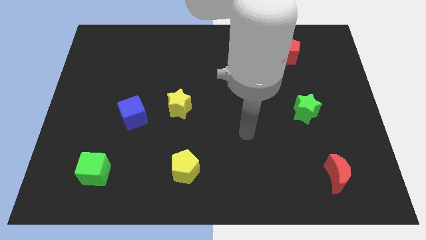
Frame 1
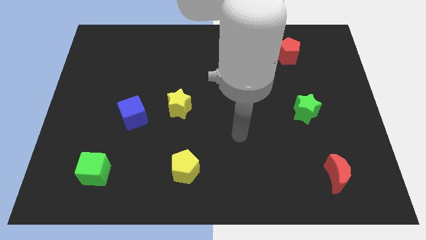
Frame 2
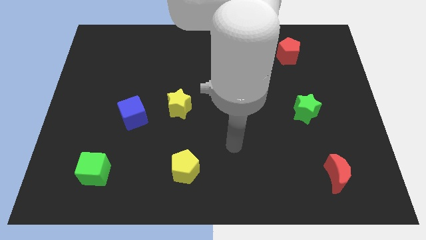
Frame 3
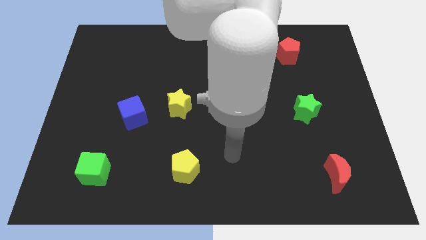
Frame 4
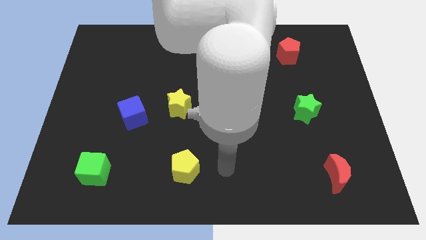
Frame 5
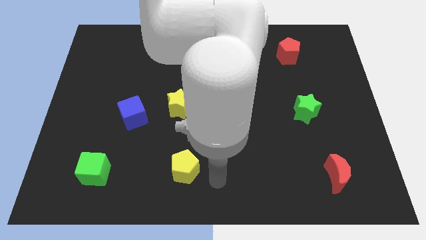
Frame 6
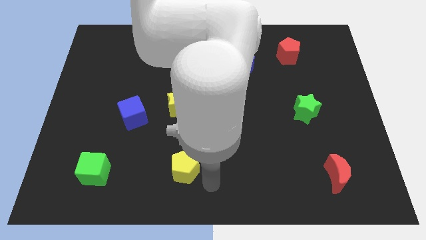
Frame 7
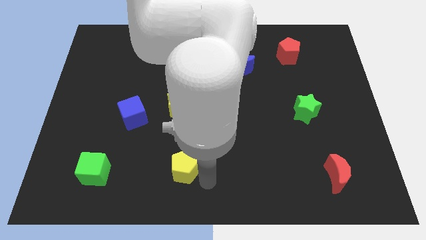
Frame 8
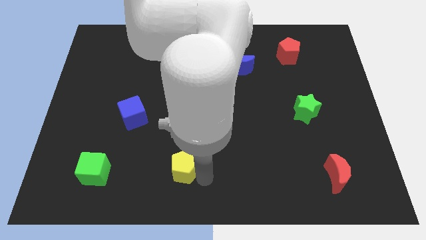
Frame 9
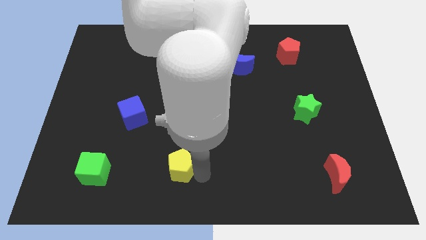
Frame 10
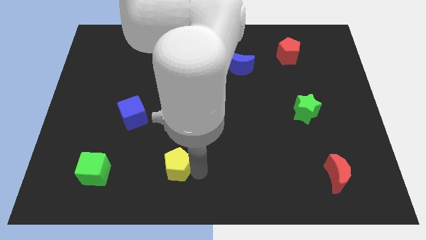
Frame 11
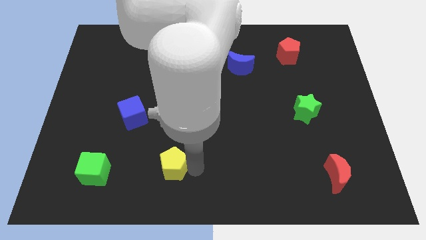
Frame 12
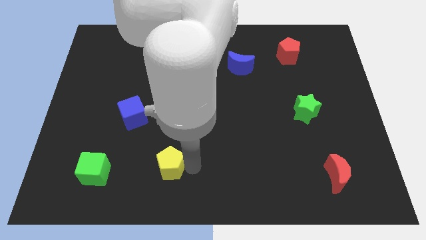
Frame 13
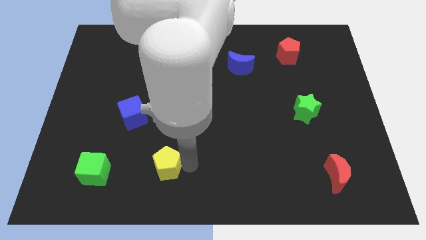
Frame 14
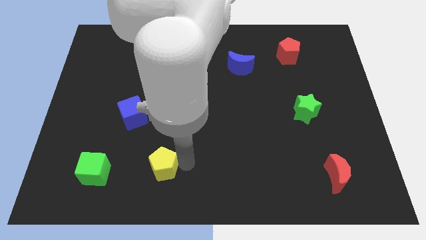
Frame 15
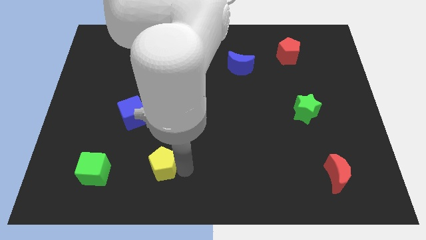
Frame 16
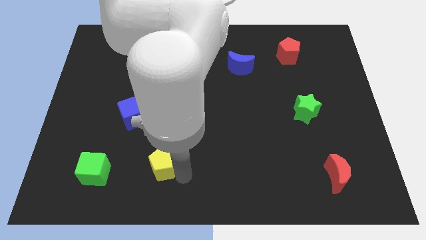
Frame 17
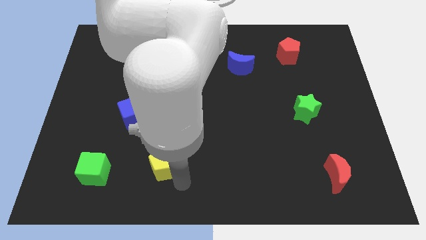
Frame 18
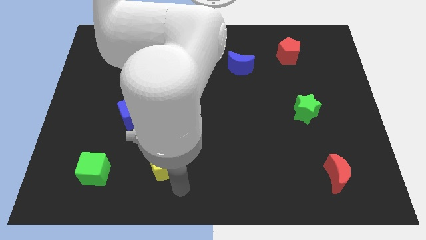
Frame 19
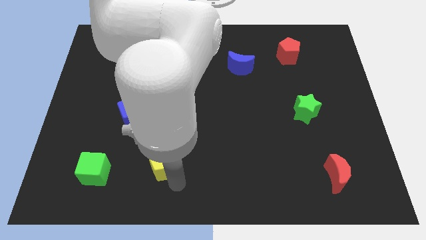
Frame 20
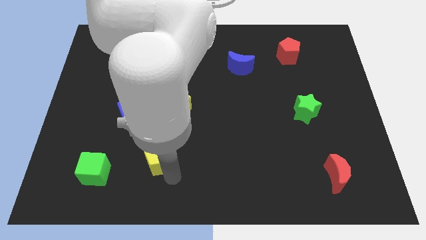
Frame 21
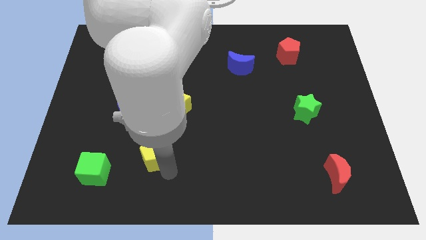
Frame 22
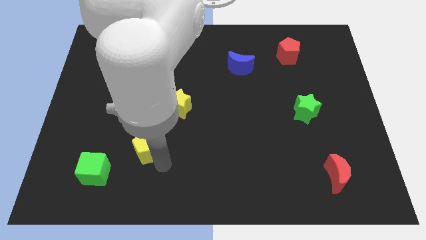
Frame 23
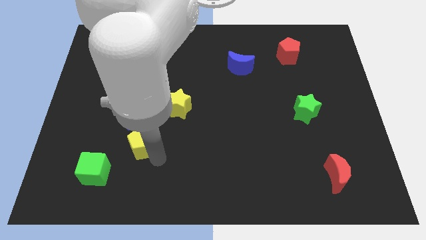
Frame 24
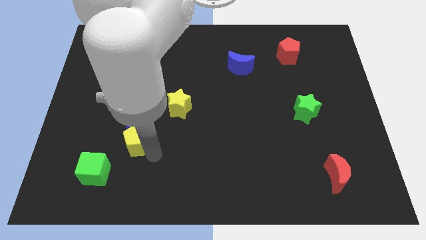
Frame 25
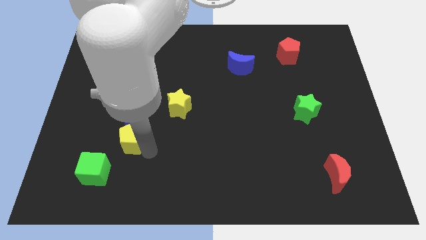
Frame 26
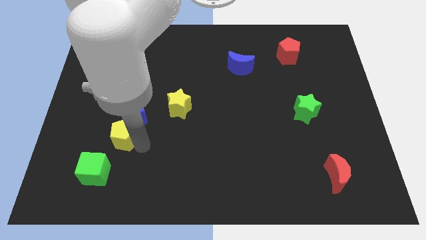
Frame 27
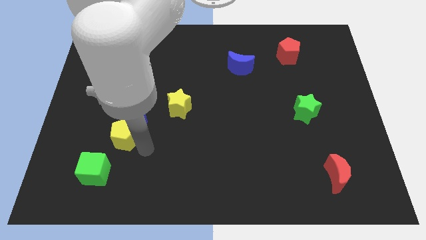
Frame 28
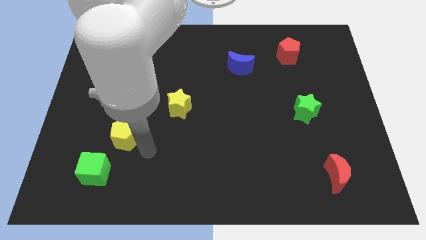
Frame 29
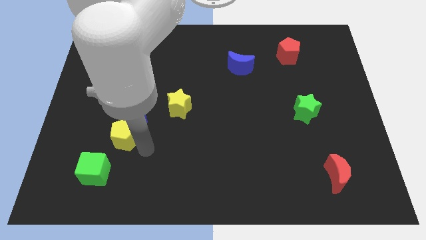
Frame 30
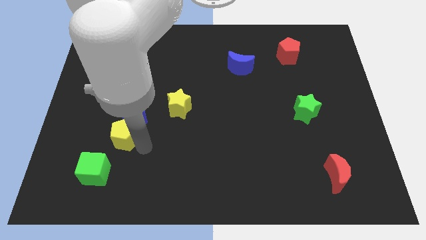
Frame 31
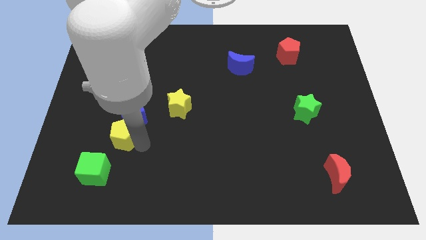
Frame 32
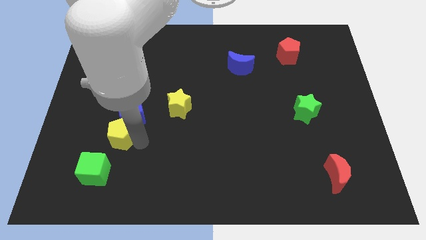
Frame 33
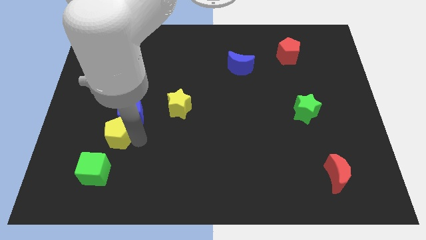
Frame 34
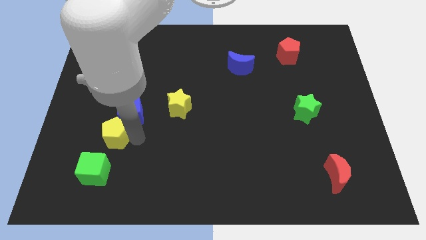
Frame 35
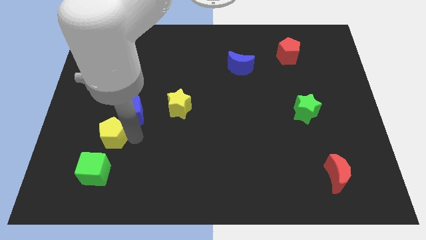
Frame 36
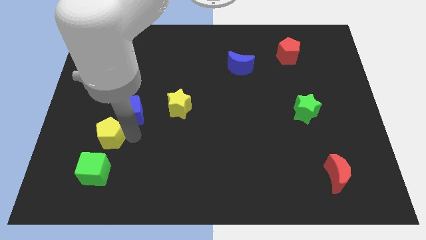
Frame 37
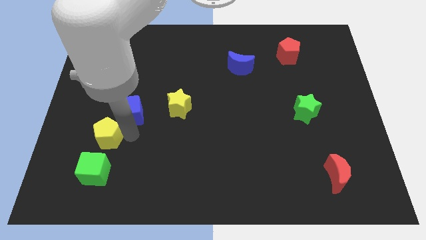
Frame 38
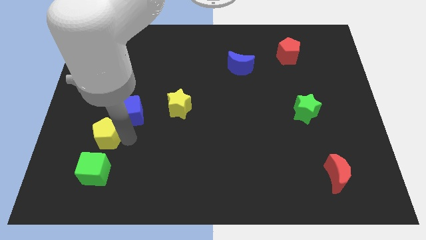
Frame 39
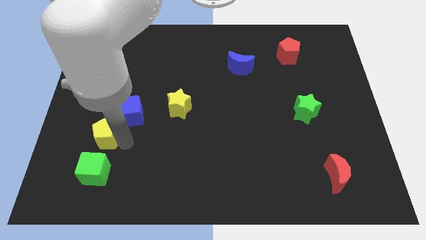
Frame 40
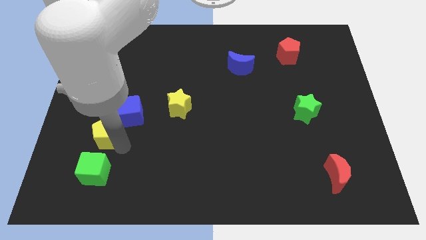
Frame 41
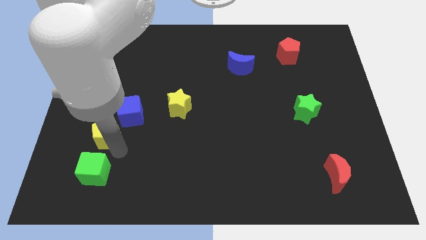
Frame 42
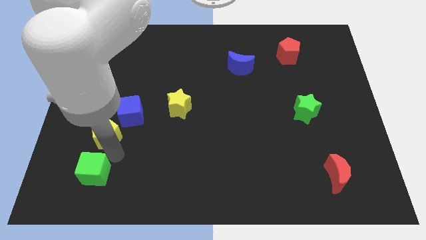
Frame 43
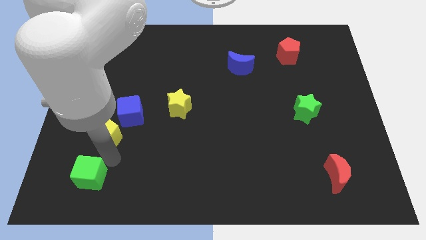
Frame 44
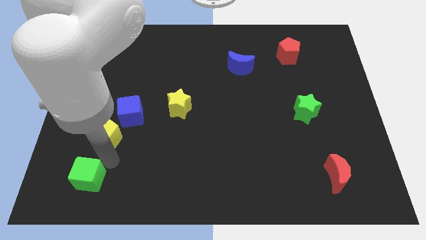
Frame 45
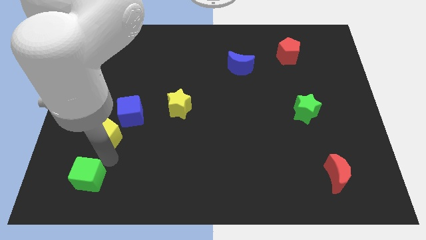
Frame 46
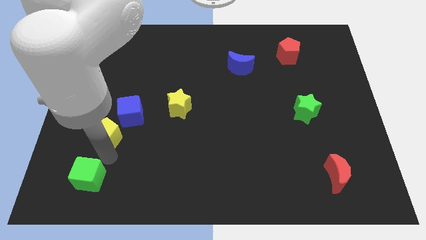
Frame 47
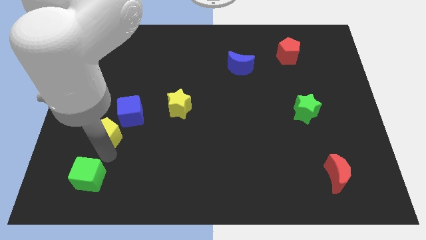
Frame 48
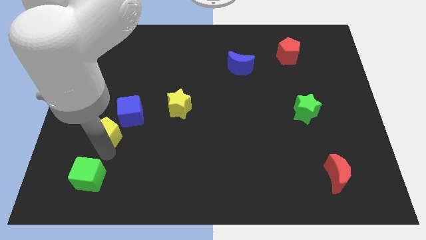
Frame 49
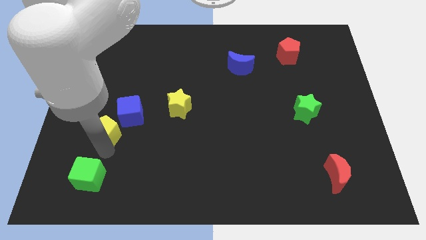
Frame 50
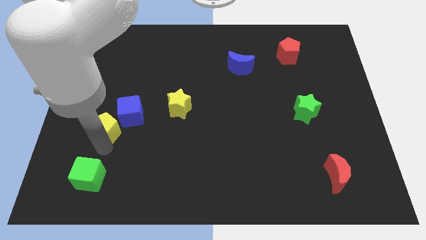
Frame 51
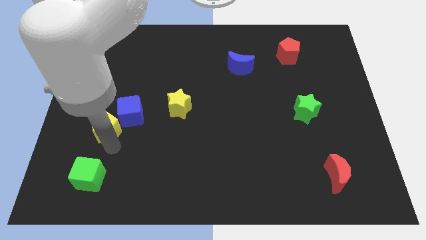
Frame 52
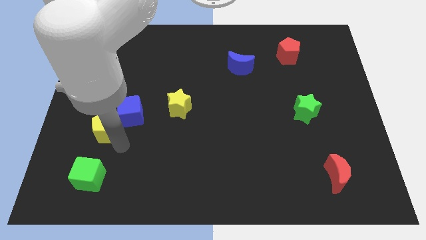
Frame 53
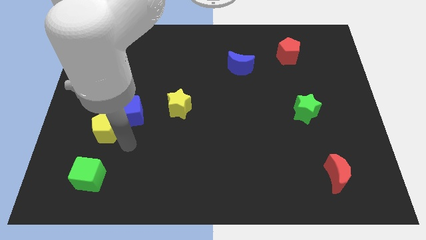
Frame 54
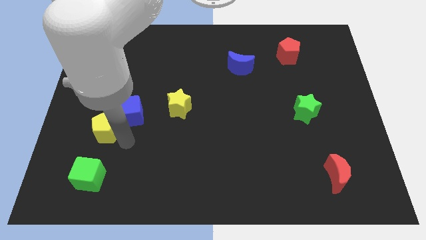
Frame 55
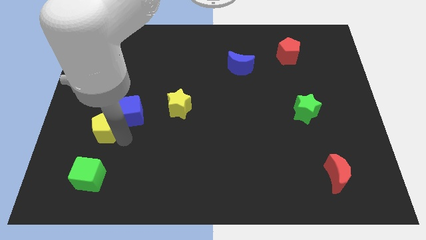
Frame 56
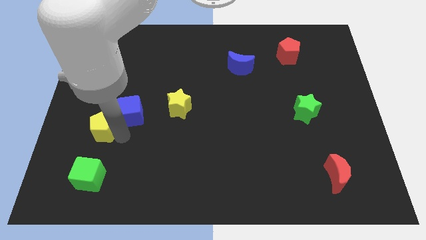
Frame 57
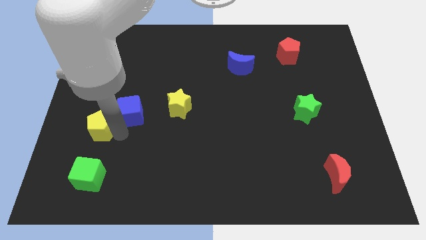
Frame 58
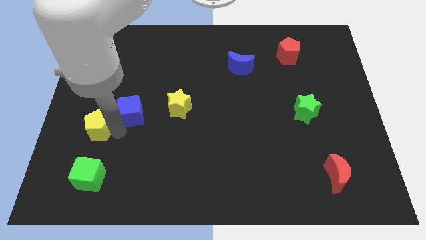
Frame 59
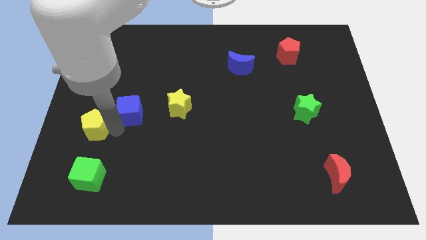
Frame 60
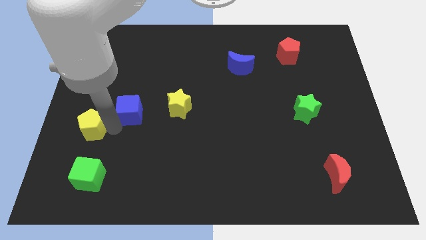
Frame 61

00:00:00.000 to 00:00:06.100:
move the yellow pentagon to the left side of the board
